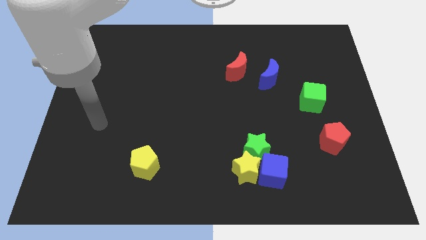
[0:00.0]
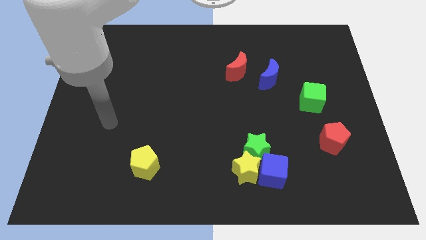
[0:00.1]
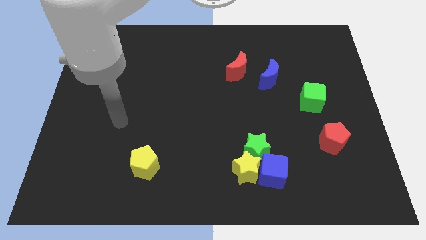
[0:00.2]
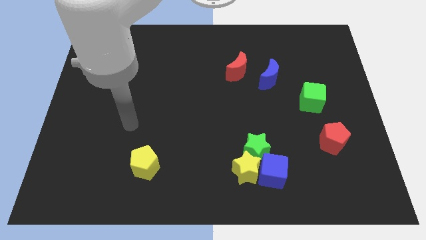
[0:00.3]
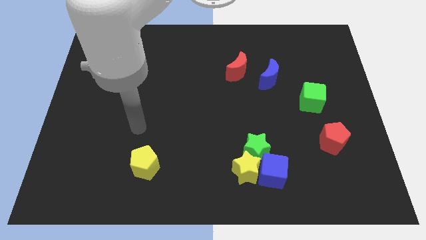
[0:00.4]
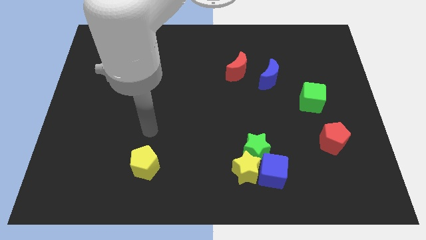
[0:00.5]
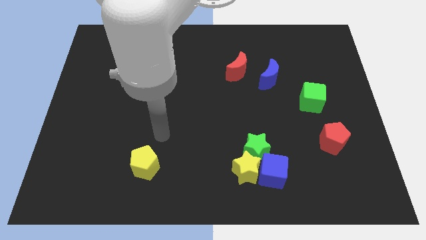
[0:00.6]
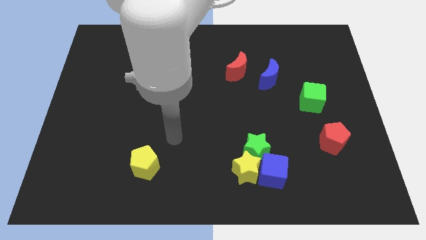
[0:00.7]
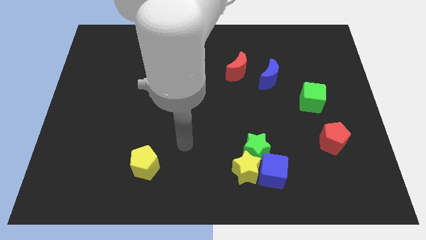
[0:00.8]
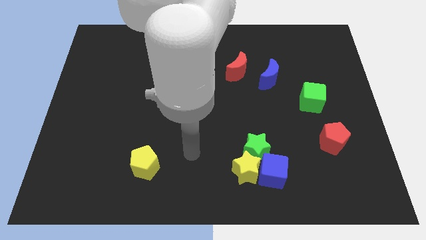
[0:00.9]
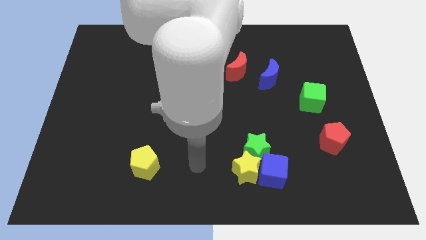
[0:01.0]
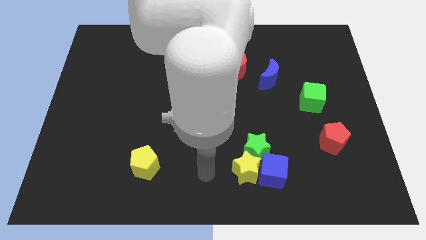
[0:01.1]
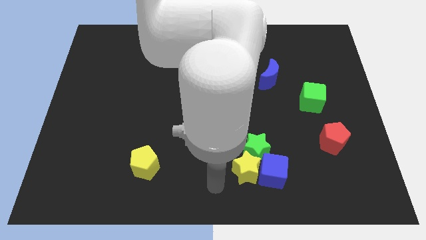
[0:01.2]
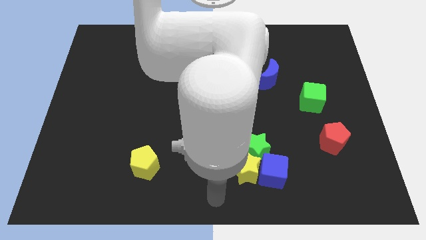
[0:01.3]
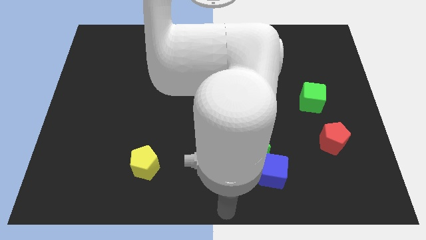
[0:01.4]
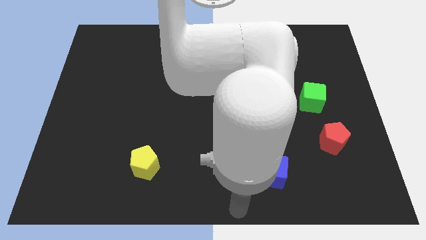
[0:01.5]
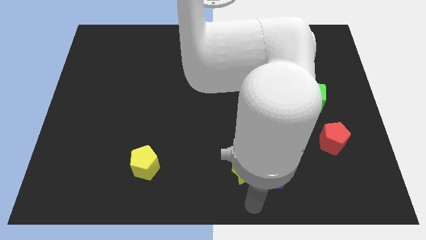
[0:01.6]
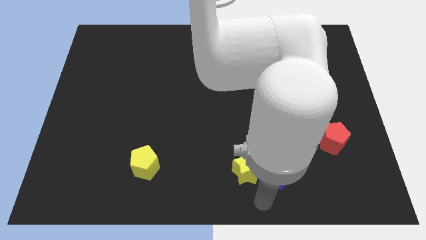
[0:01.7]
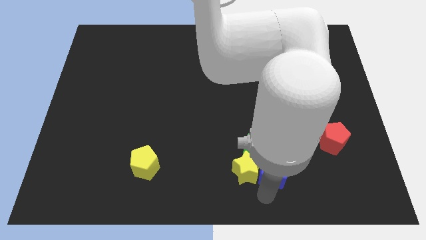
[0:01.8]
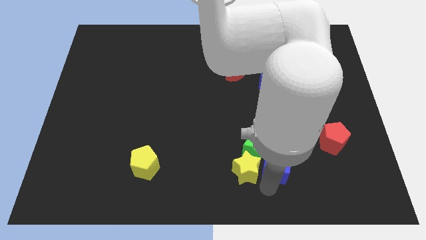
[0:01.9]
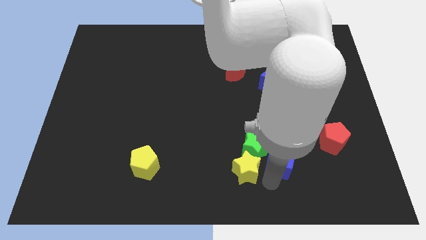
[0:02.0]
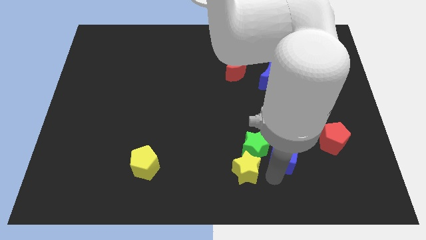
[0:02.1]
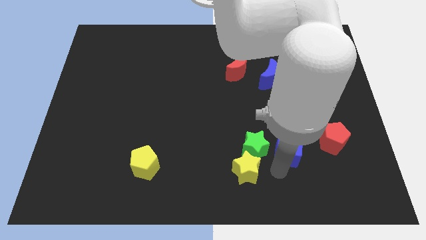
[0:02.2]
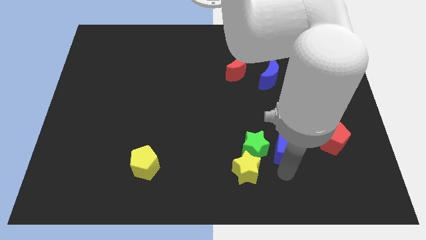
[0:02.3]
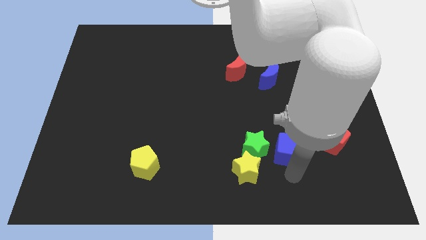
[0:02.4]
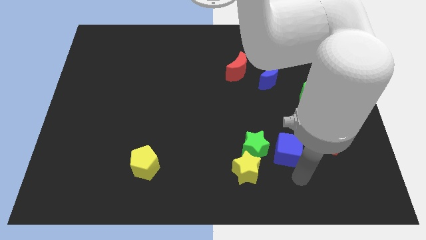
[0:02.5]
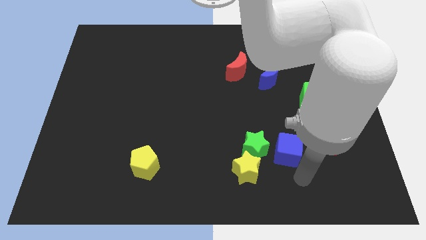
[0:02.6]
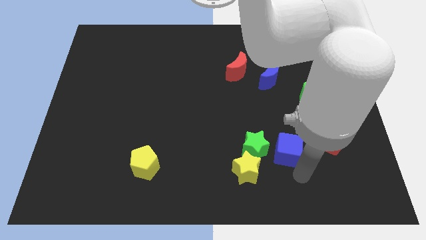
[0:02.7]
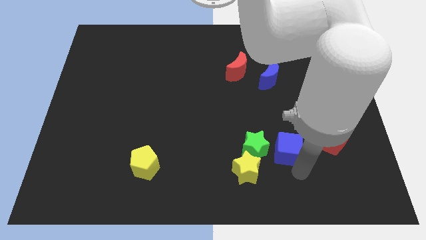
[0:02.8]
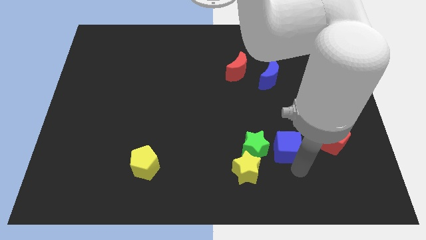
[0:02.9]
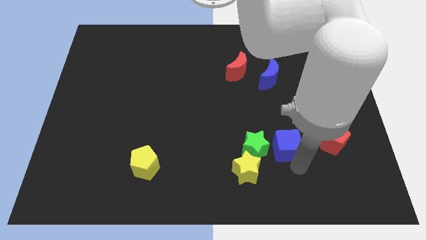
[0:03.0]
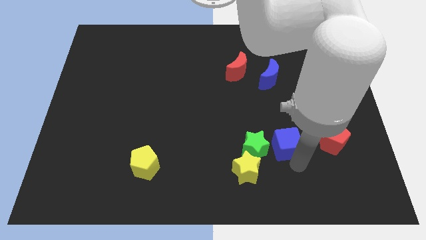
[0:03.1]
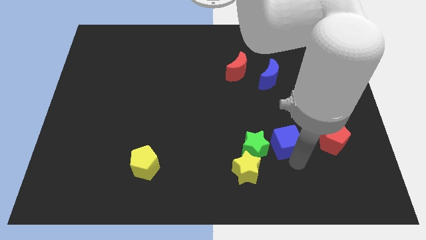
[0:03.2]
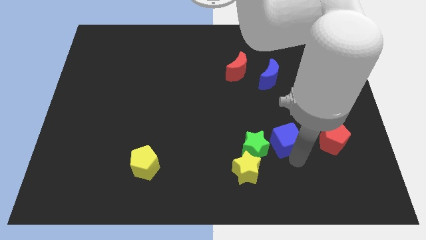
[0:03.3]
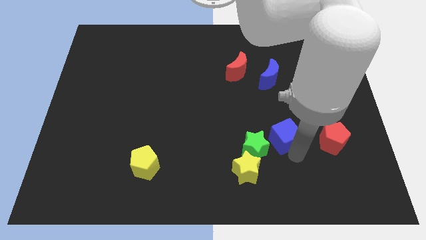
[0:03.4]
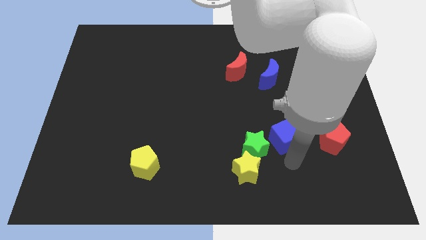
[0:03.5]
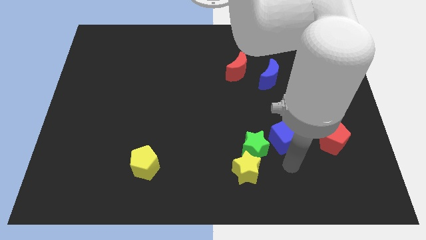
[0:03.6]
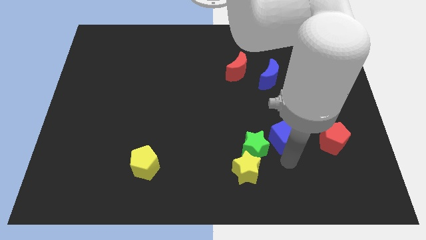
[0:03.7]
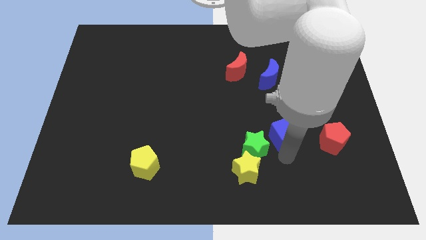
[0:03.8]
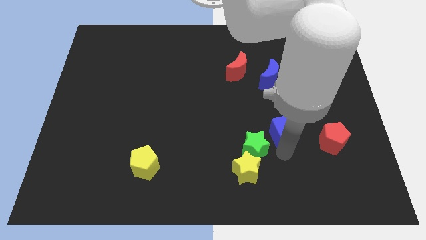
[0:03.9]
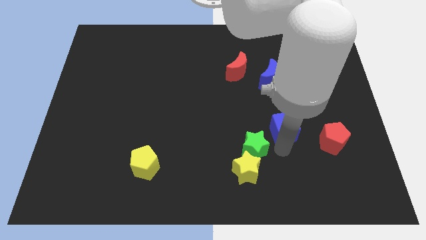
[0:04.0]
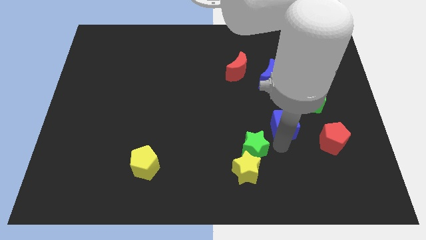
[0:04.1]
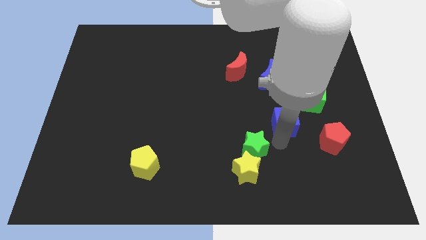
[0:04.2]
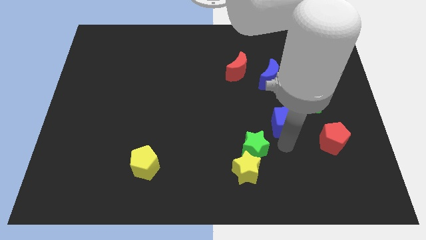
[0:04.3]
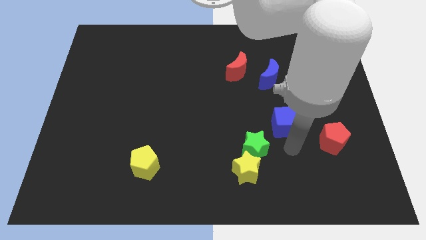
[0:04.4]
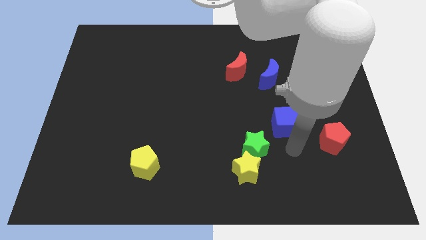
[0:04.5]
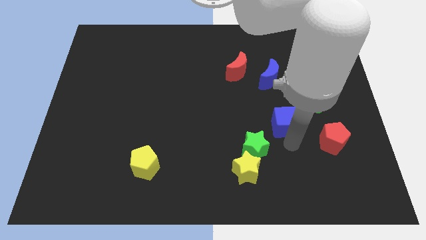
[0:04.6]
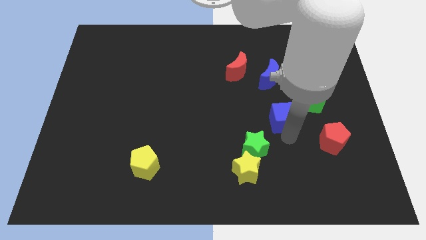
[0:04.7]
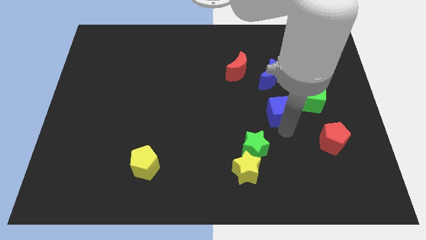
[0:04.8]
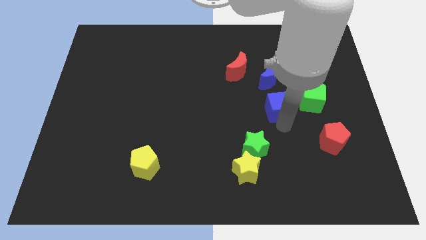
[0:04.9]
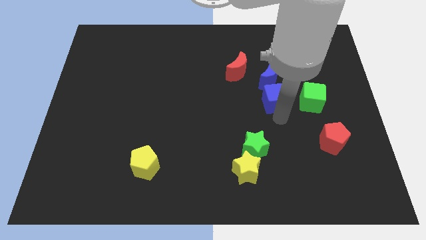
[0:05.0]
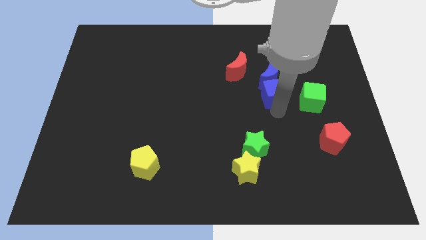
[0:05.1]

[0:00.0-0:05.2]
slide the blue cube close to the blue moon

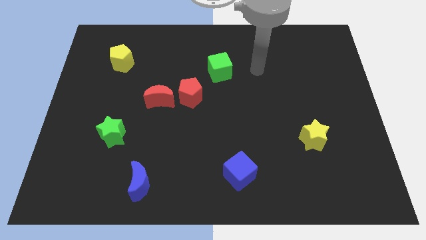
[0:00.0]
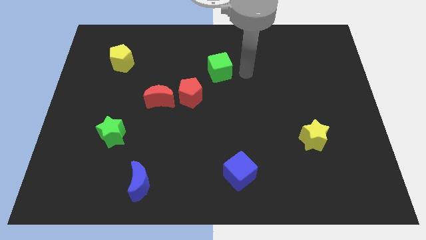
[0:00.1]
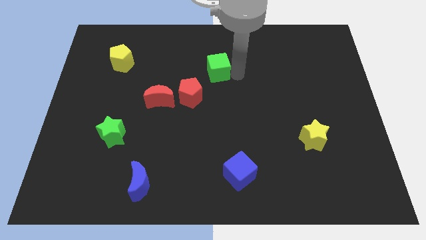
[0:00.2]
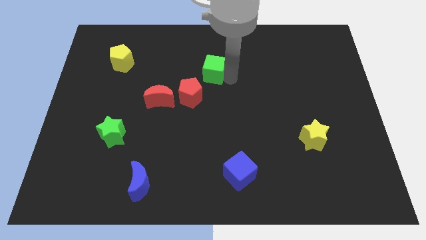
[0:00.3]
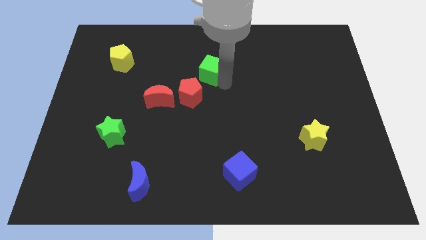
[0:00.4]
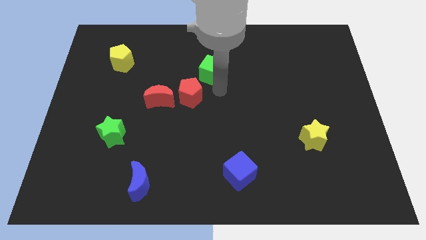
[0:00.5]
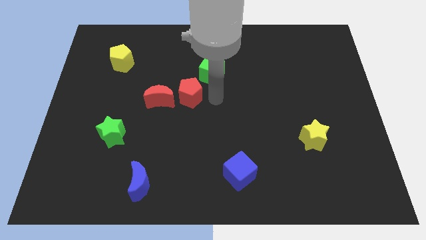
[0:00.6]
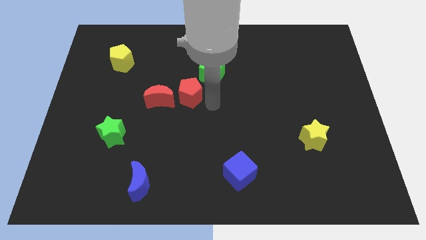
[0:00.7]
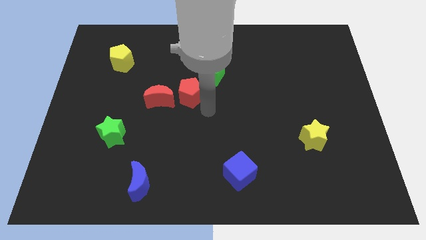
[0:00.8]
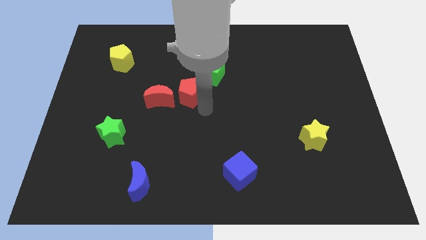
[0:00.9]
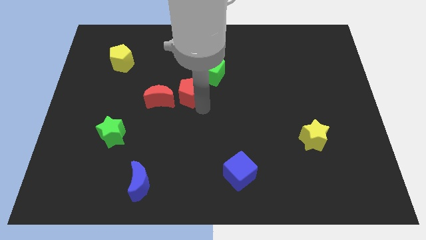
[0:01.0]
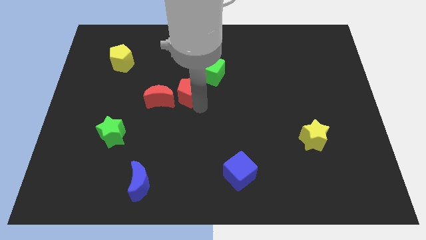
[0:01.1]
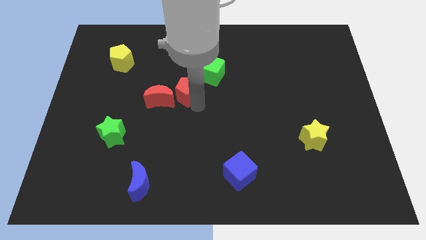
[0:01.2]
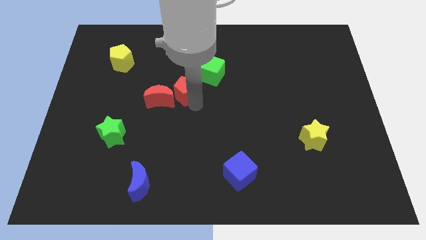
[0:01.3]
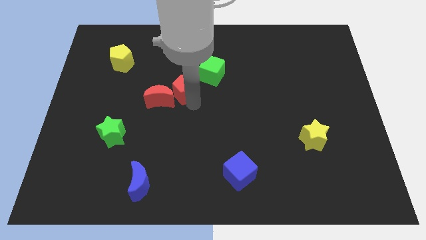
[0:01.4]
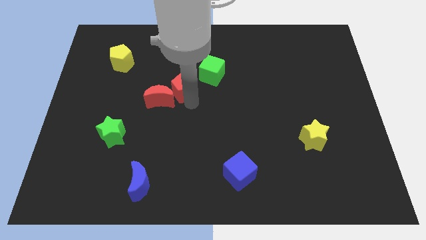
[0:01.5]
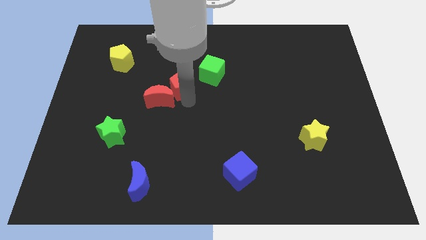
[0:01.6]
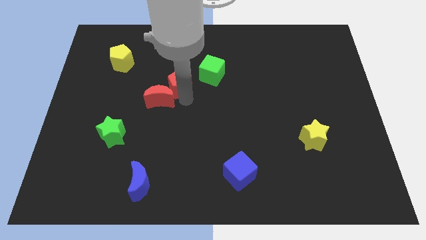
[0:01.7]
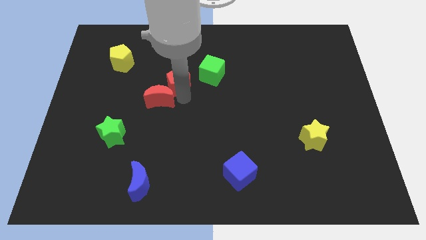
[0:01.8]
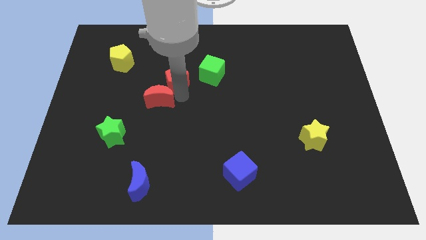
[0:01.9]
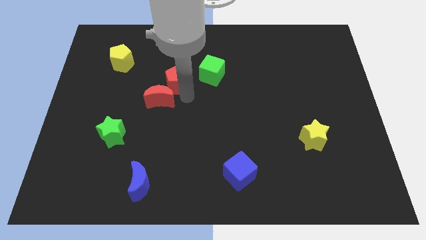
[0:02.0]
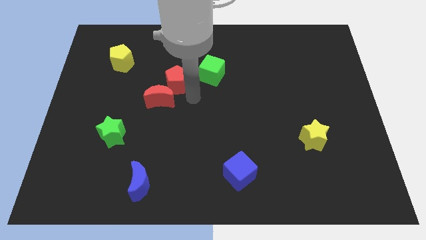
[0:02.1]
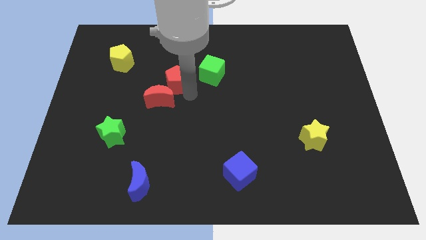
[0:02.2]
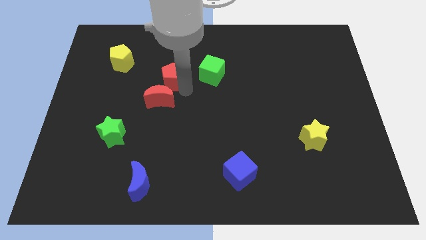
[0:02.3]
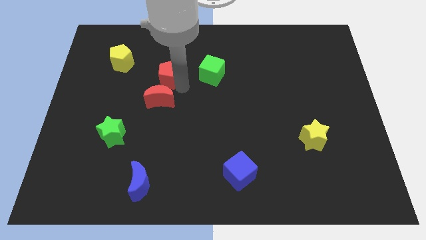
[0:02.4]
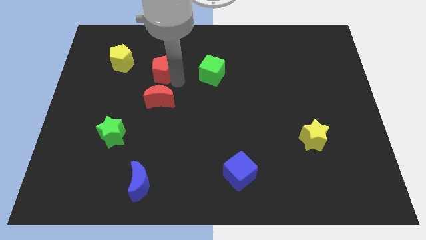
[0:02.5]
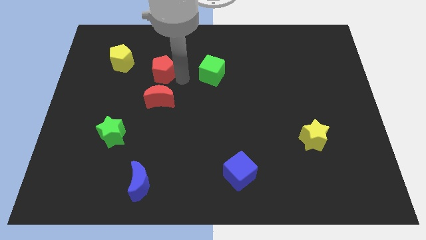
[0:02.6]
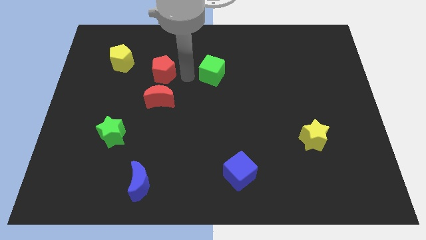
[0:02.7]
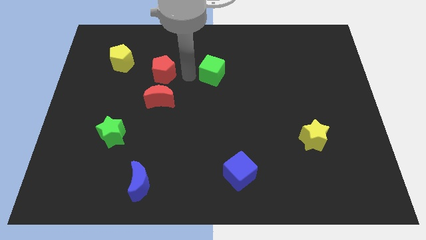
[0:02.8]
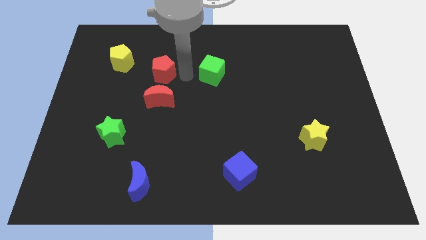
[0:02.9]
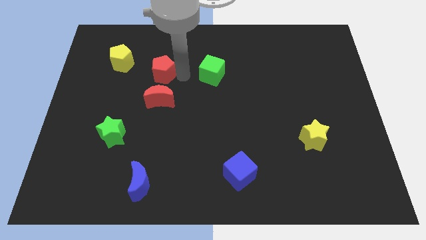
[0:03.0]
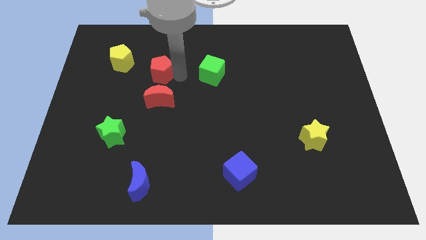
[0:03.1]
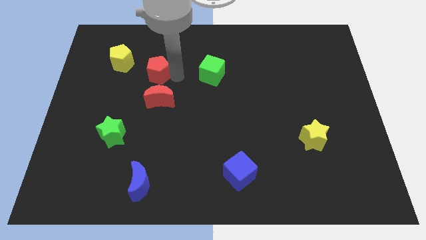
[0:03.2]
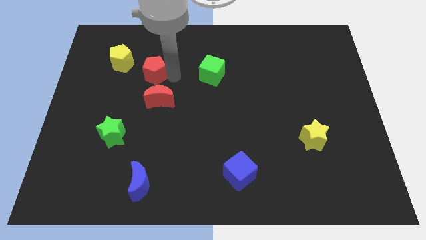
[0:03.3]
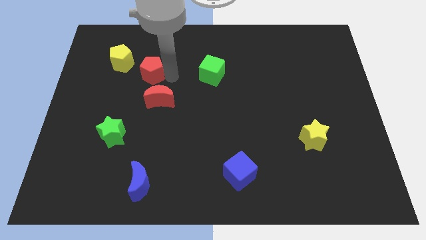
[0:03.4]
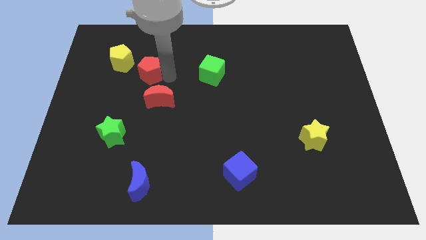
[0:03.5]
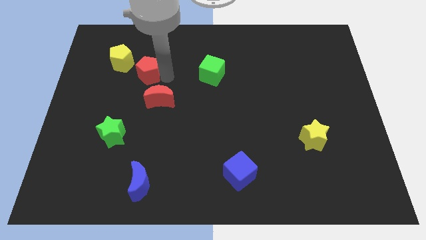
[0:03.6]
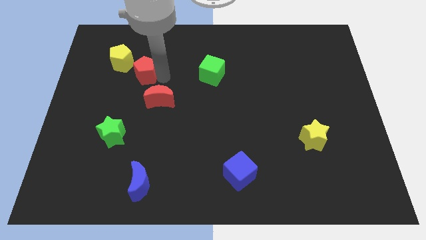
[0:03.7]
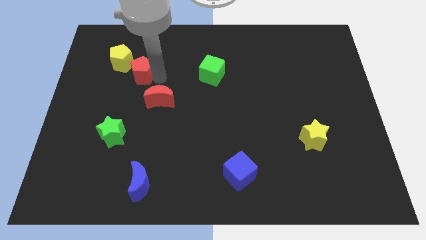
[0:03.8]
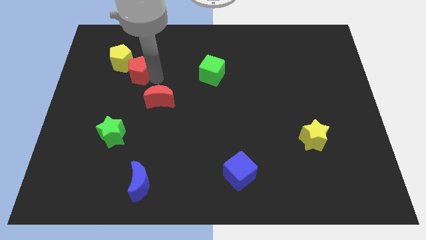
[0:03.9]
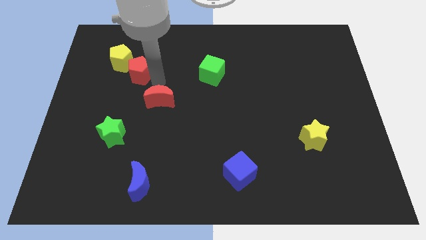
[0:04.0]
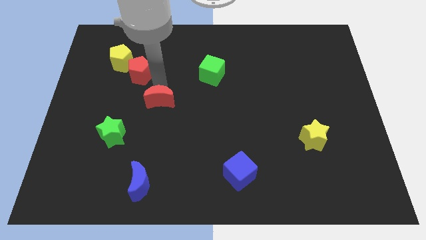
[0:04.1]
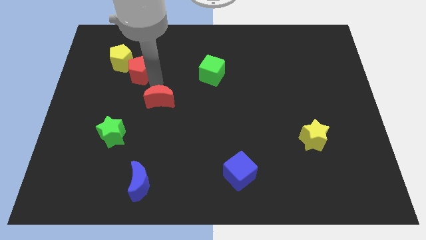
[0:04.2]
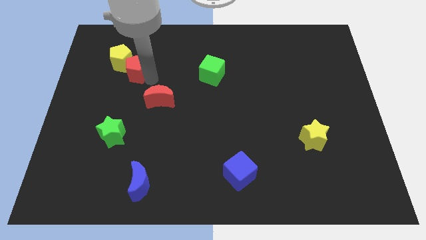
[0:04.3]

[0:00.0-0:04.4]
push the red pentagon to the yellow pentagon
